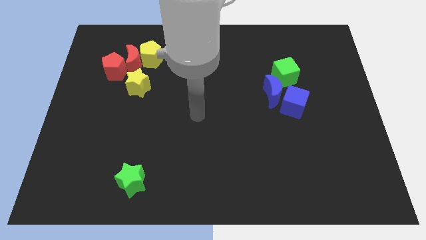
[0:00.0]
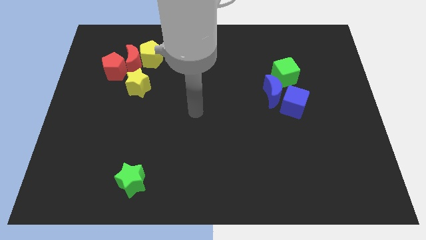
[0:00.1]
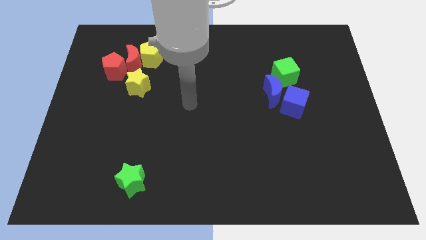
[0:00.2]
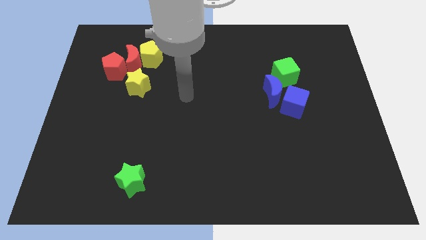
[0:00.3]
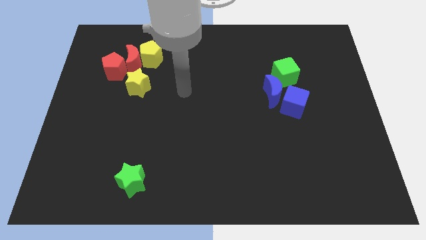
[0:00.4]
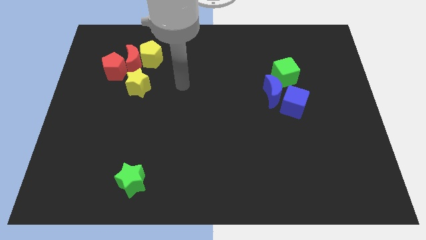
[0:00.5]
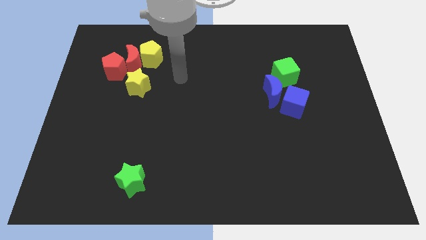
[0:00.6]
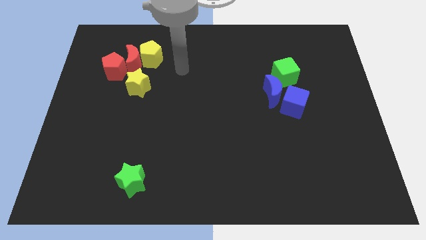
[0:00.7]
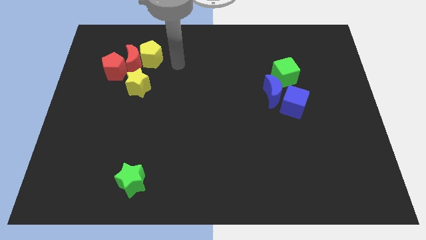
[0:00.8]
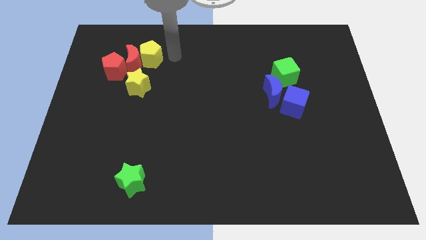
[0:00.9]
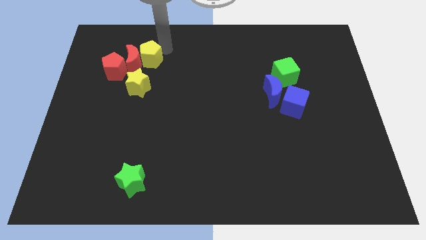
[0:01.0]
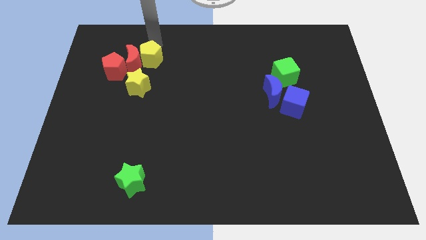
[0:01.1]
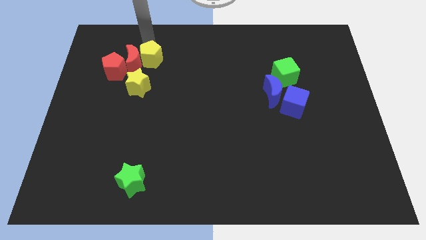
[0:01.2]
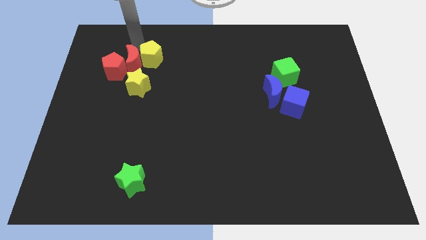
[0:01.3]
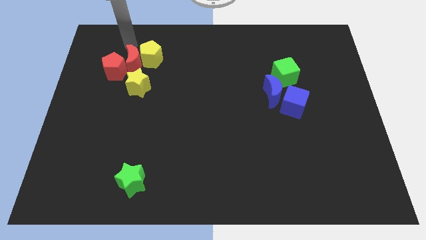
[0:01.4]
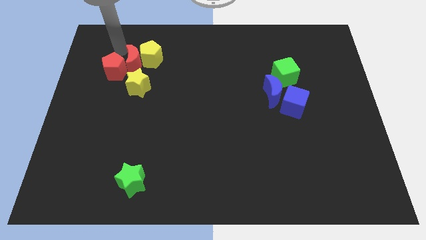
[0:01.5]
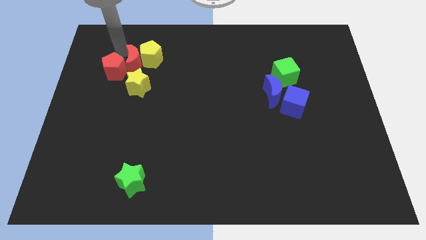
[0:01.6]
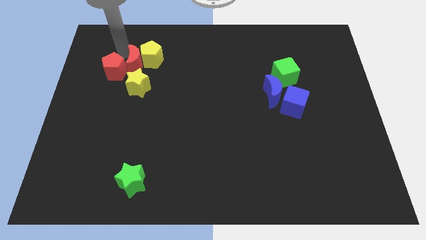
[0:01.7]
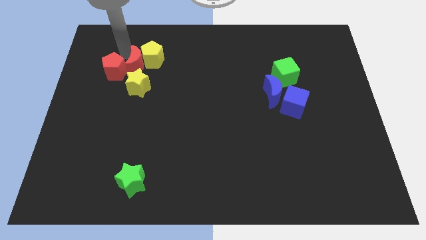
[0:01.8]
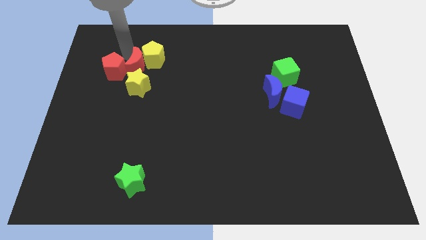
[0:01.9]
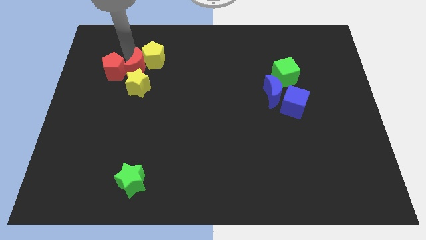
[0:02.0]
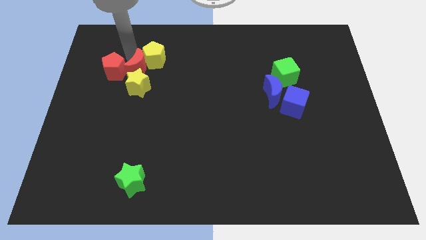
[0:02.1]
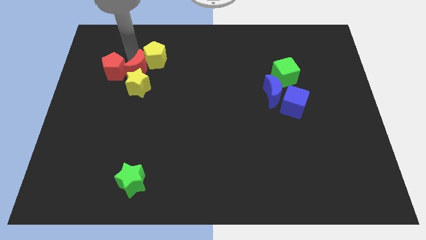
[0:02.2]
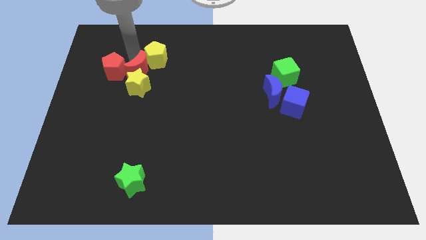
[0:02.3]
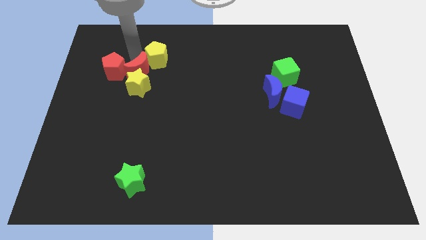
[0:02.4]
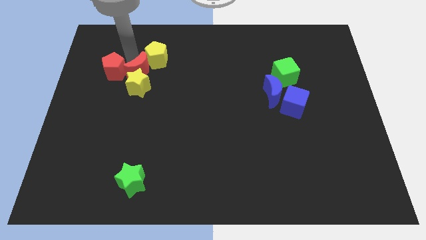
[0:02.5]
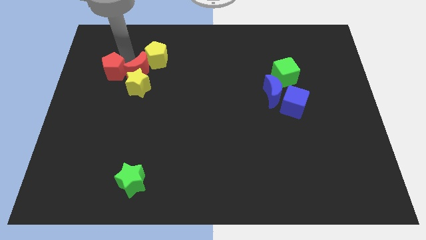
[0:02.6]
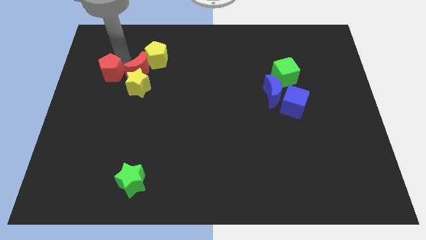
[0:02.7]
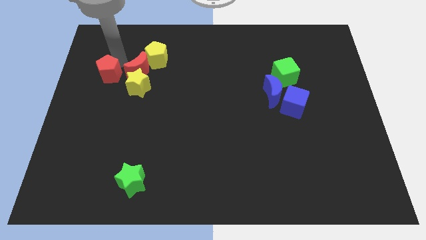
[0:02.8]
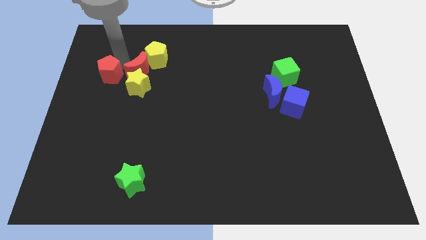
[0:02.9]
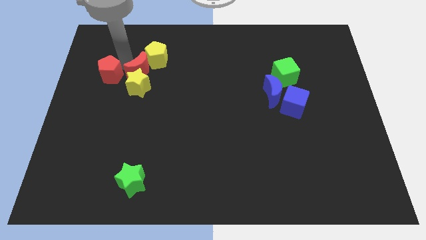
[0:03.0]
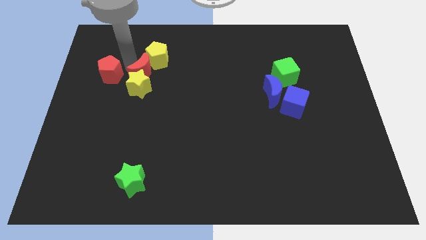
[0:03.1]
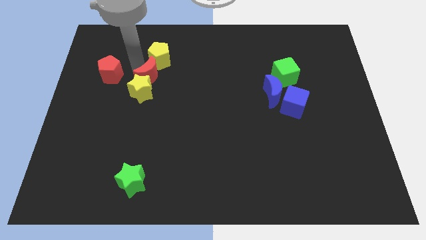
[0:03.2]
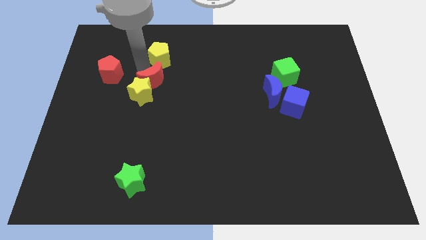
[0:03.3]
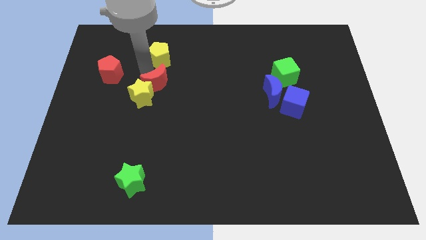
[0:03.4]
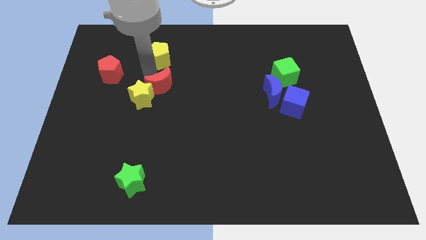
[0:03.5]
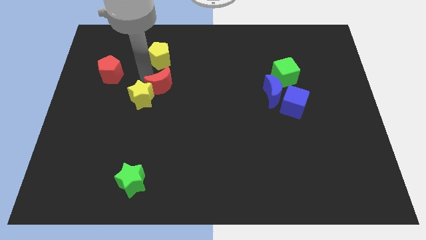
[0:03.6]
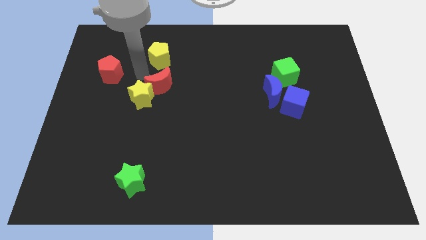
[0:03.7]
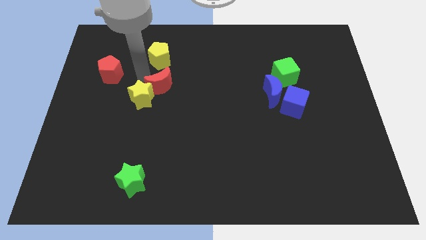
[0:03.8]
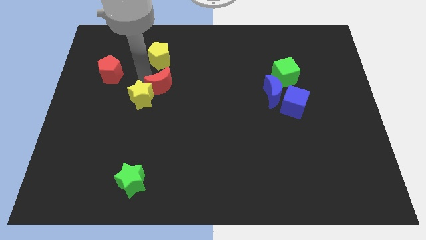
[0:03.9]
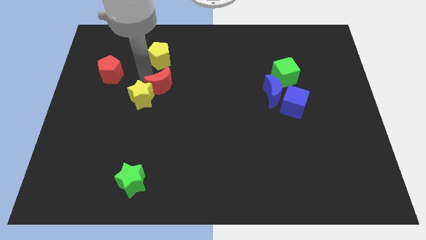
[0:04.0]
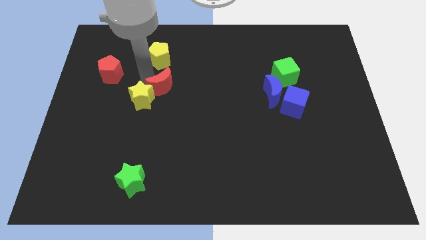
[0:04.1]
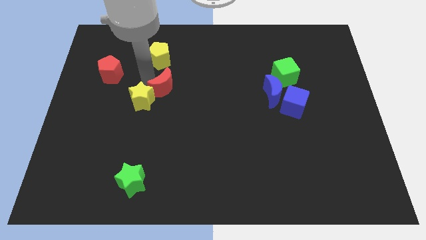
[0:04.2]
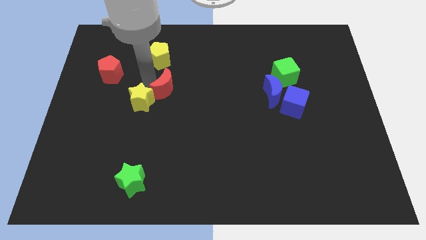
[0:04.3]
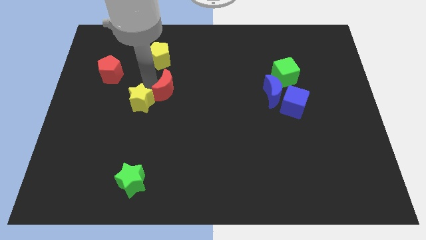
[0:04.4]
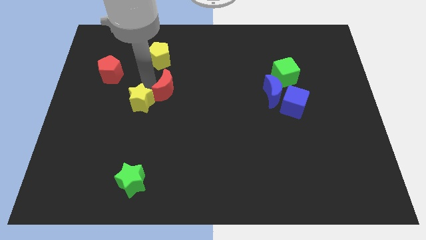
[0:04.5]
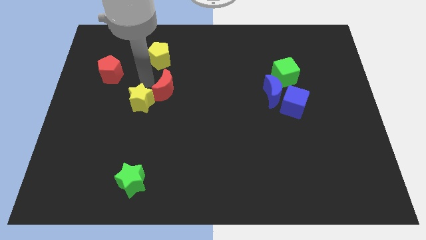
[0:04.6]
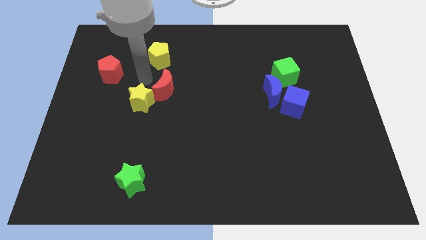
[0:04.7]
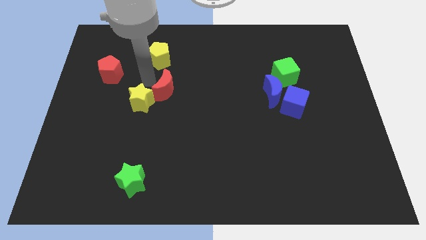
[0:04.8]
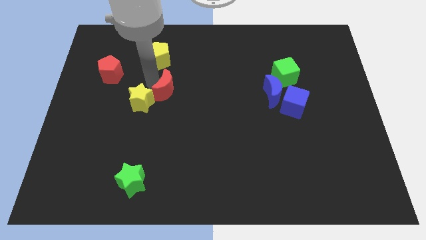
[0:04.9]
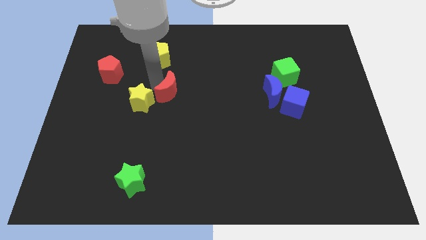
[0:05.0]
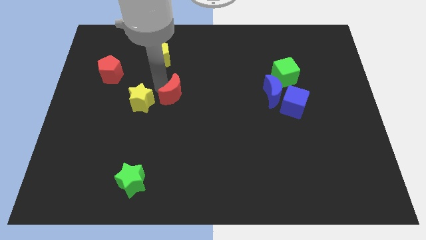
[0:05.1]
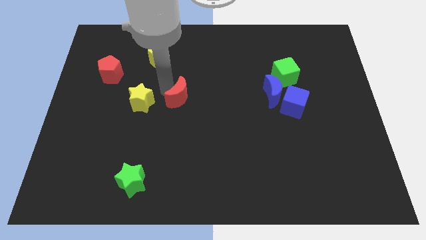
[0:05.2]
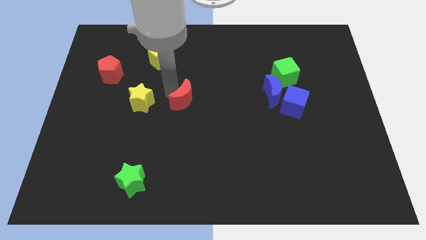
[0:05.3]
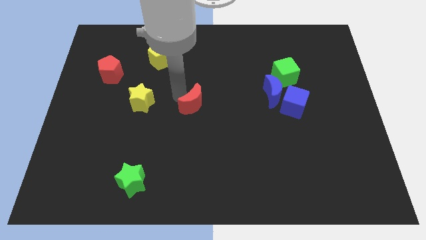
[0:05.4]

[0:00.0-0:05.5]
push the red moon downwards and right

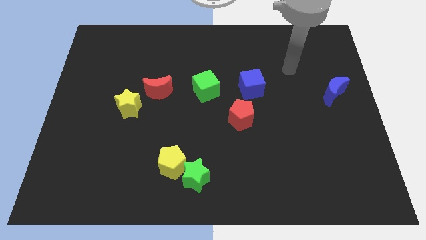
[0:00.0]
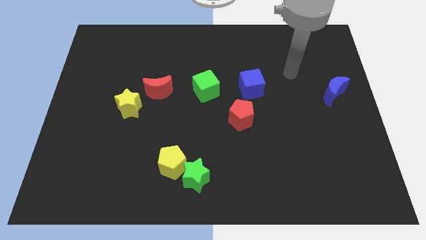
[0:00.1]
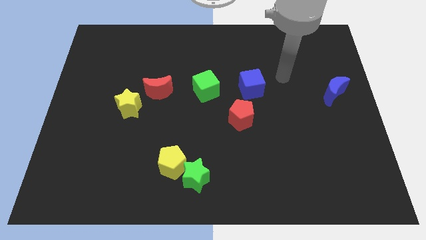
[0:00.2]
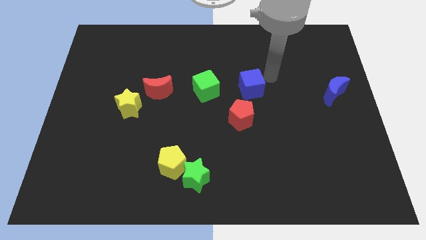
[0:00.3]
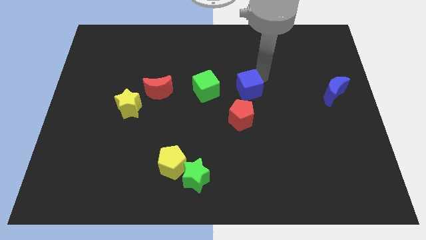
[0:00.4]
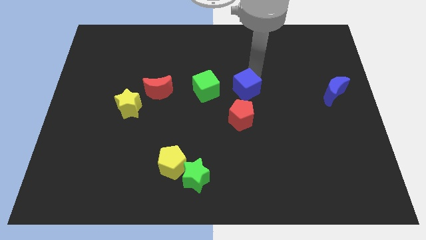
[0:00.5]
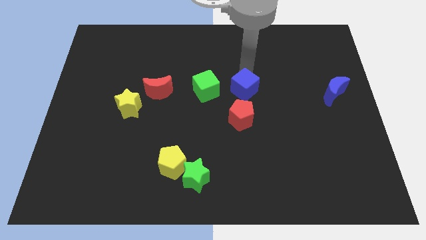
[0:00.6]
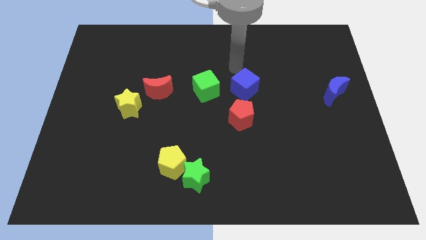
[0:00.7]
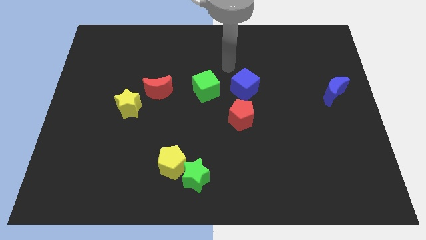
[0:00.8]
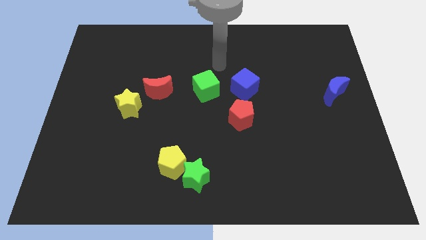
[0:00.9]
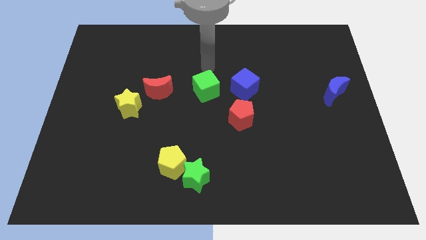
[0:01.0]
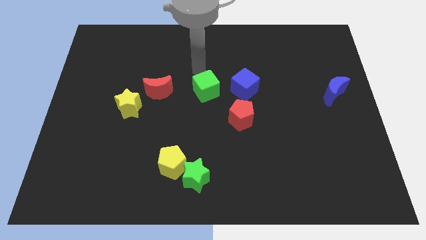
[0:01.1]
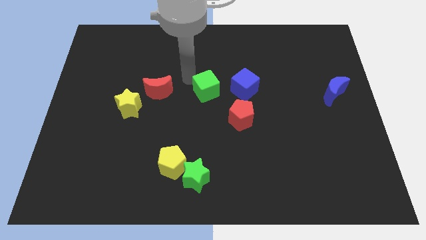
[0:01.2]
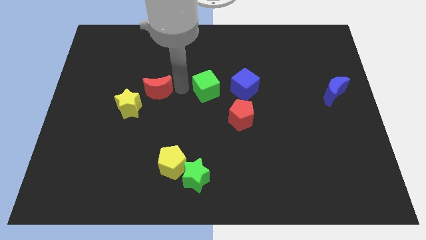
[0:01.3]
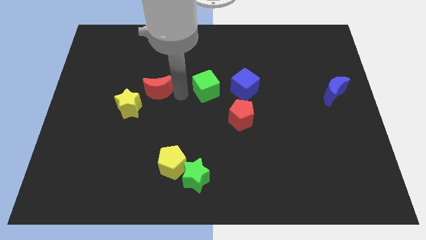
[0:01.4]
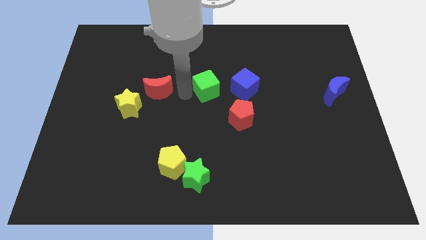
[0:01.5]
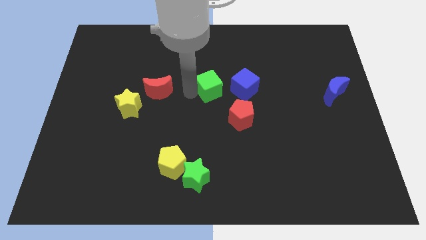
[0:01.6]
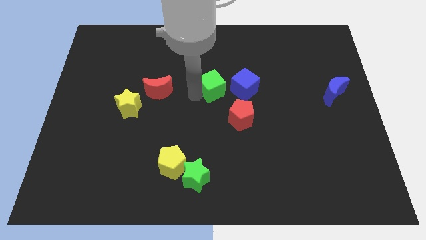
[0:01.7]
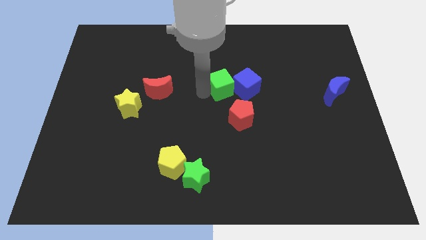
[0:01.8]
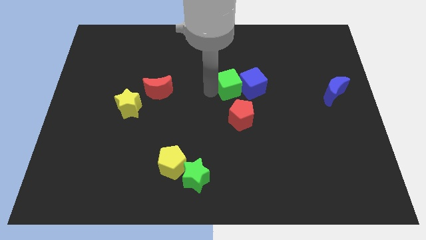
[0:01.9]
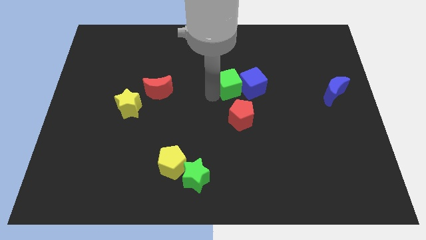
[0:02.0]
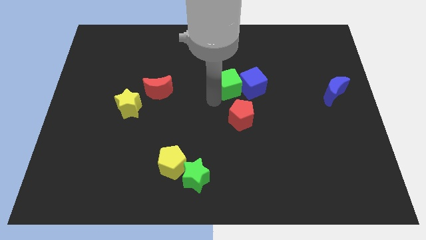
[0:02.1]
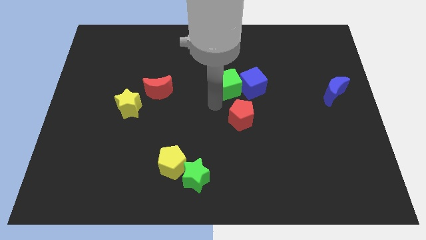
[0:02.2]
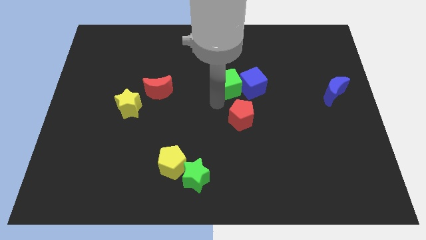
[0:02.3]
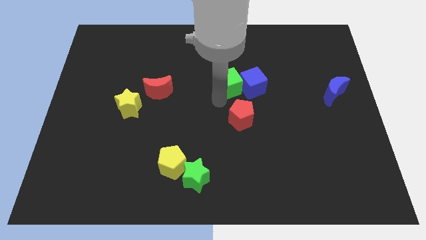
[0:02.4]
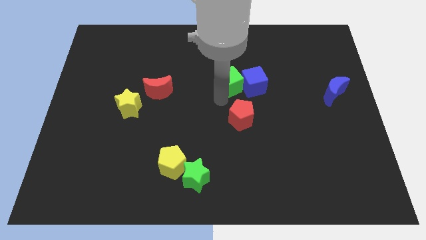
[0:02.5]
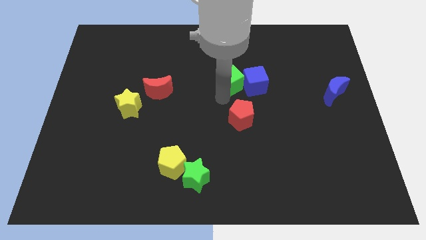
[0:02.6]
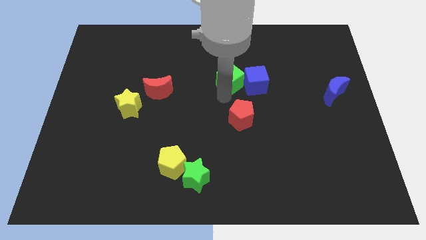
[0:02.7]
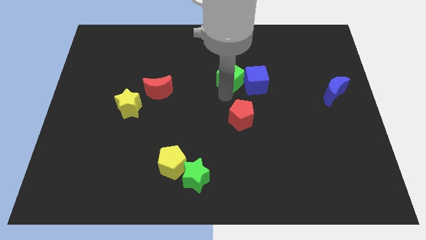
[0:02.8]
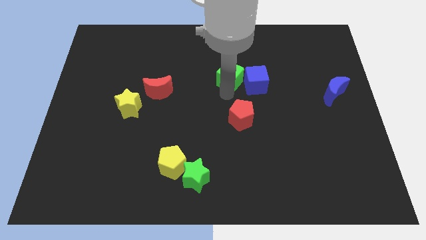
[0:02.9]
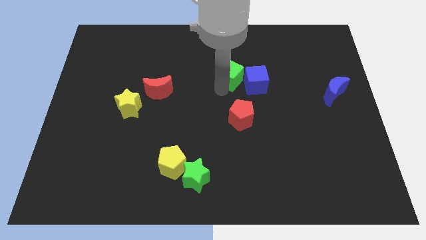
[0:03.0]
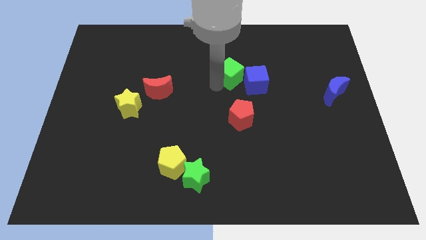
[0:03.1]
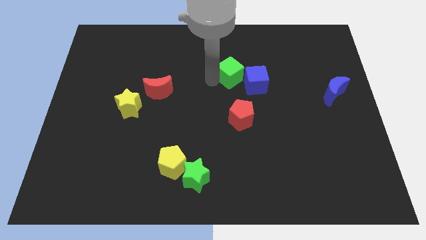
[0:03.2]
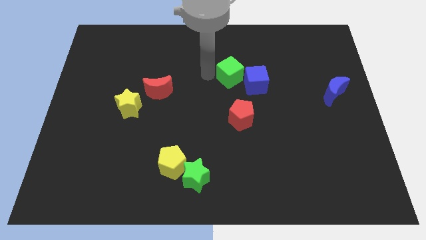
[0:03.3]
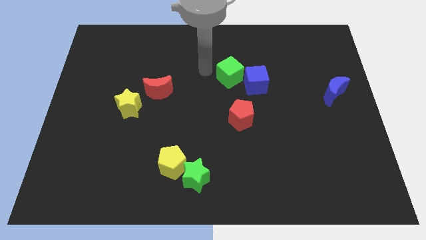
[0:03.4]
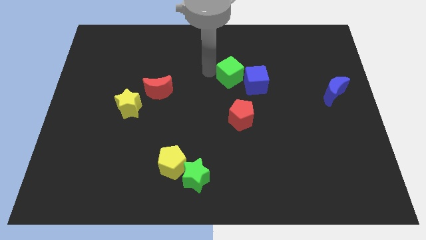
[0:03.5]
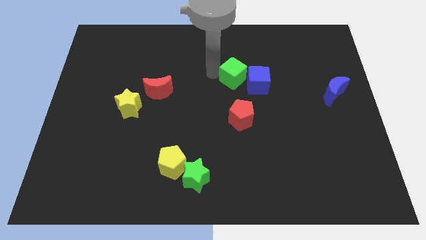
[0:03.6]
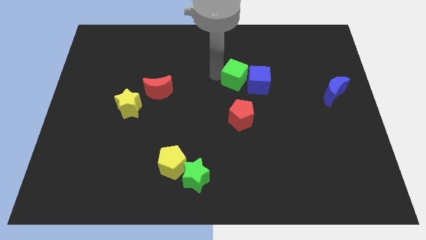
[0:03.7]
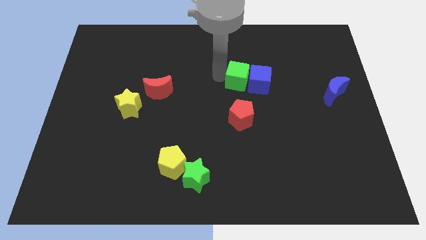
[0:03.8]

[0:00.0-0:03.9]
push the green cube right a little
